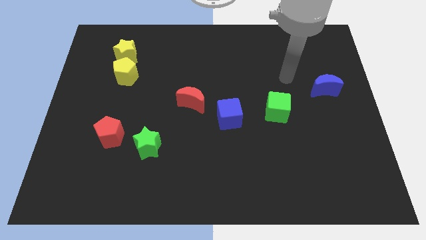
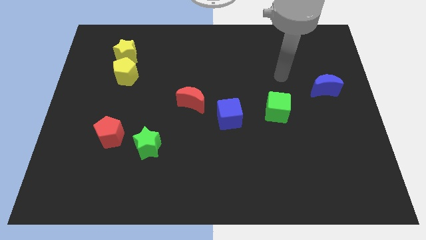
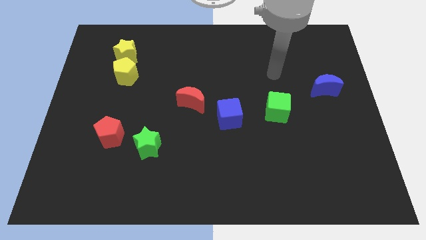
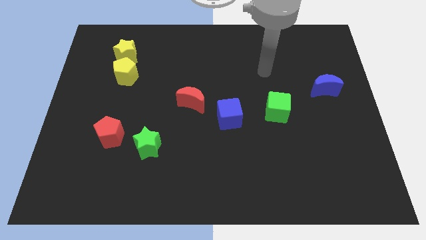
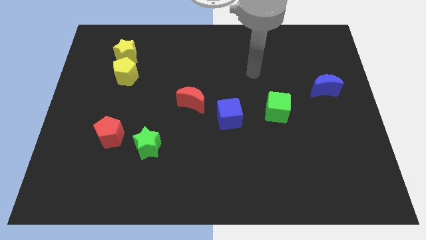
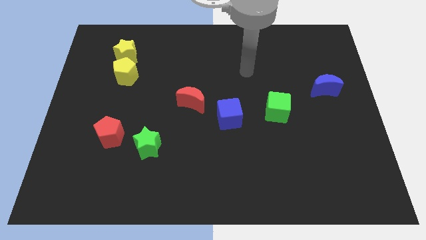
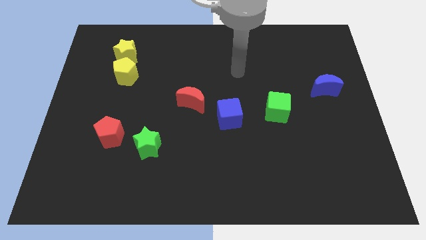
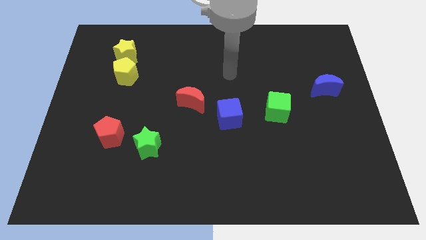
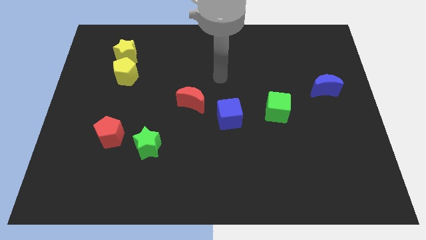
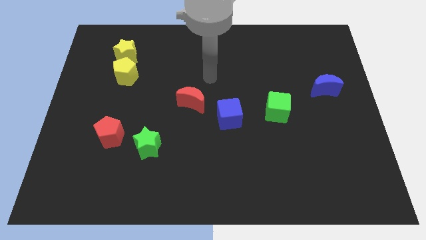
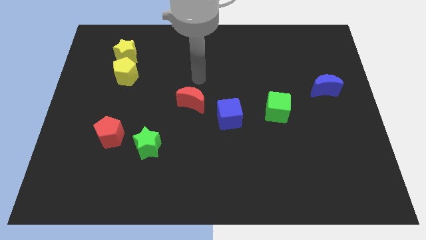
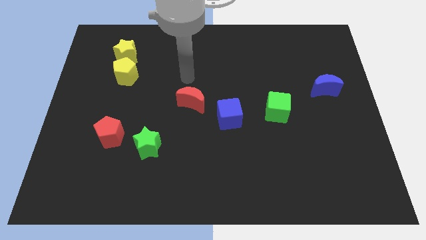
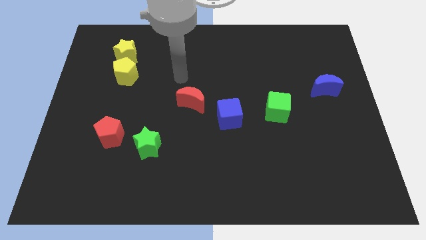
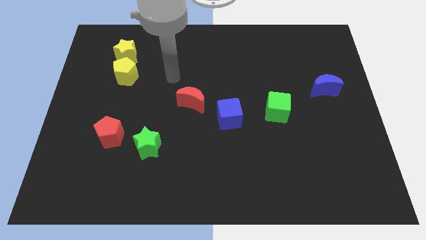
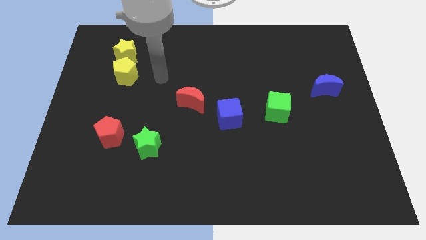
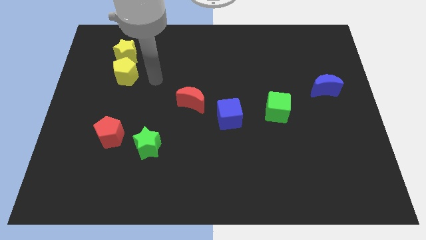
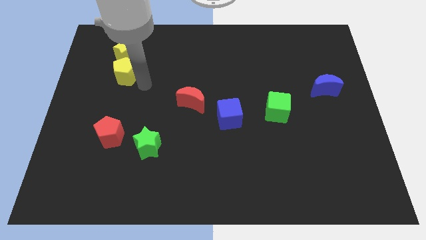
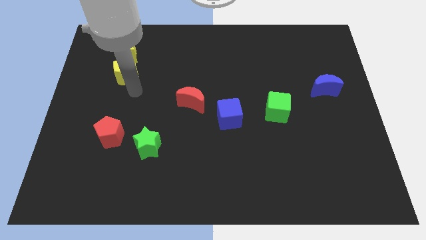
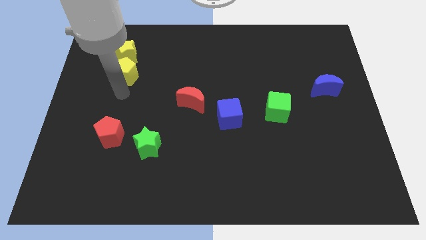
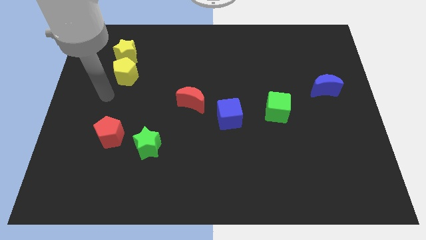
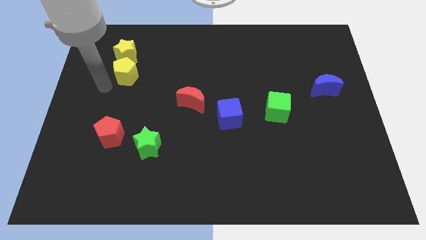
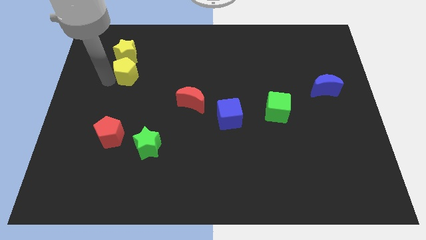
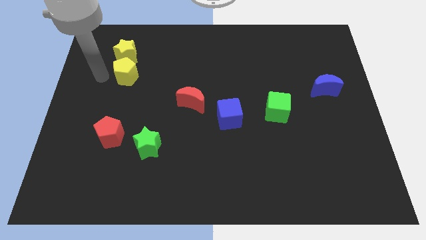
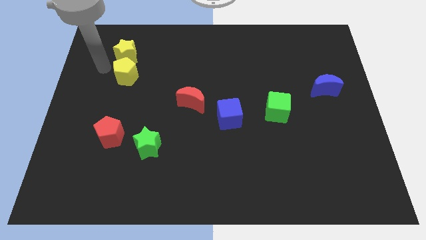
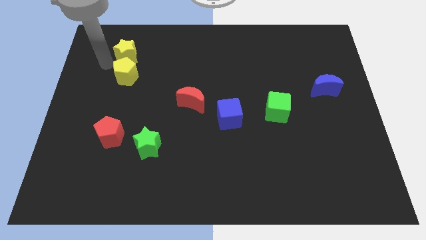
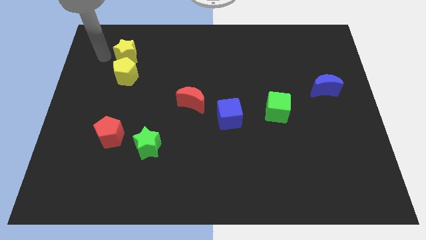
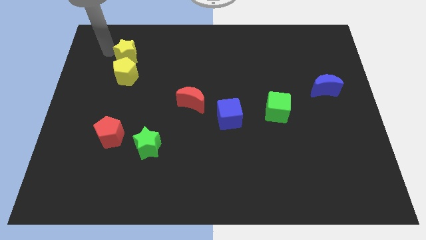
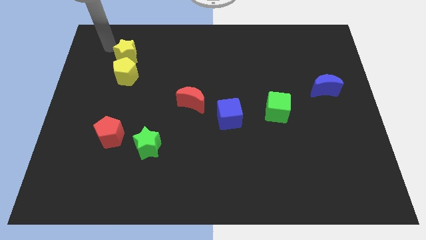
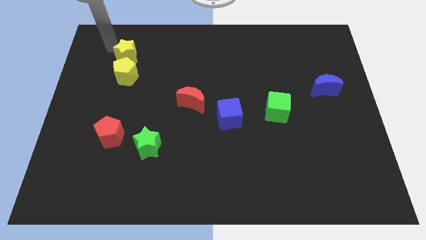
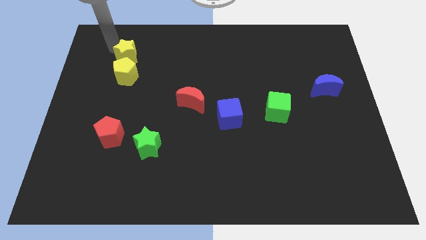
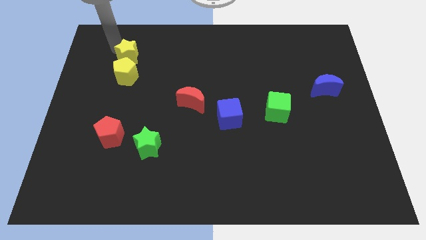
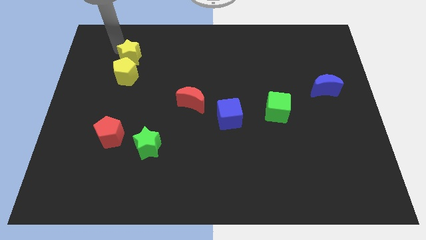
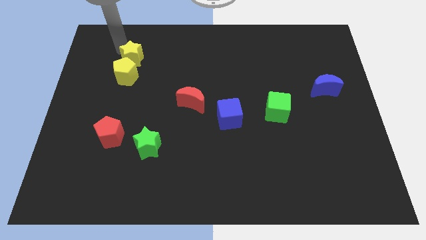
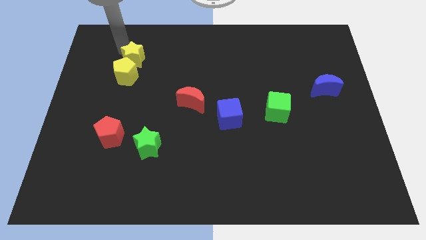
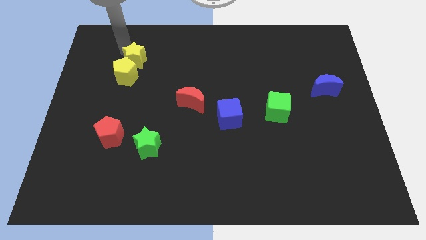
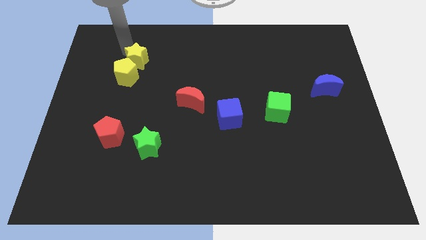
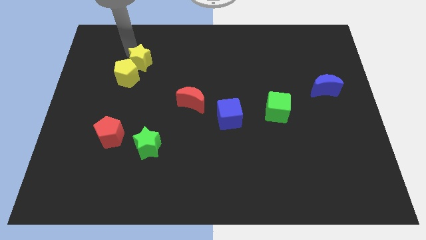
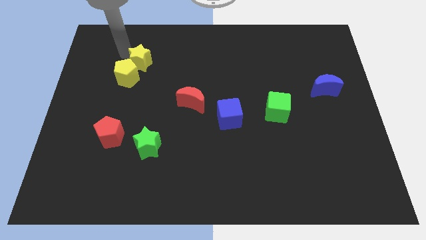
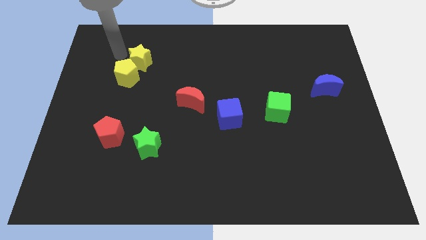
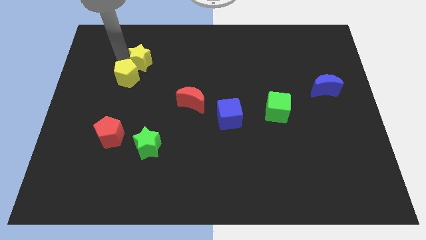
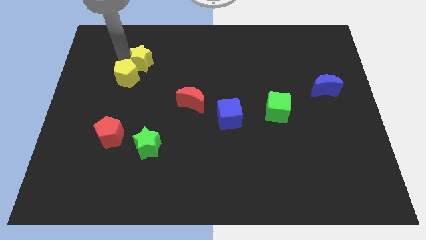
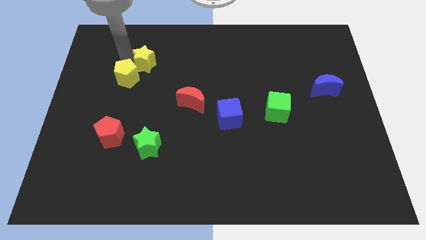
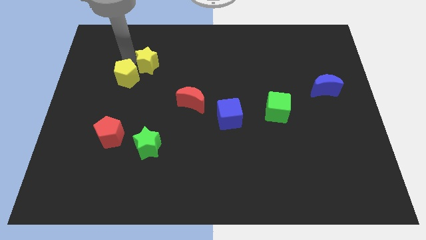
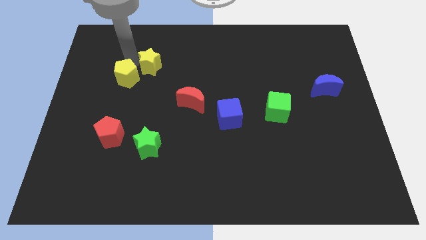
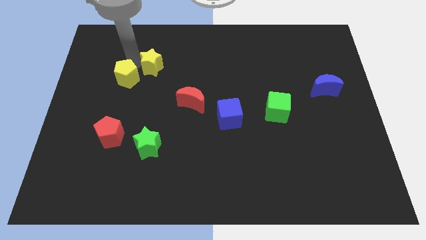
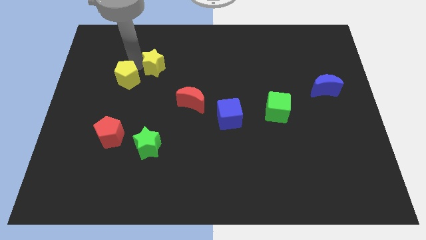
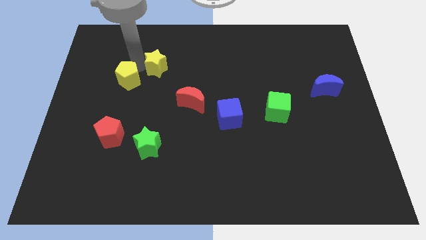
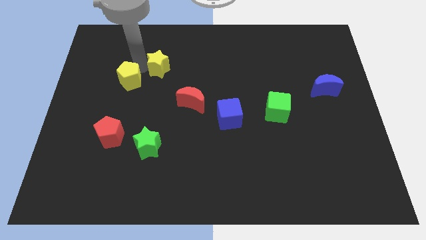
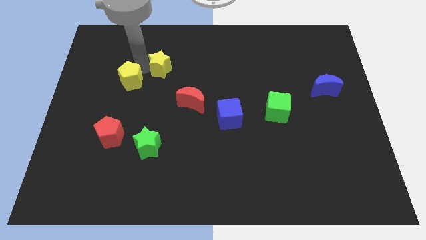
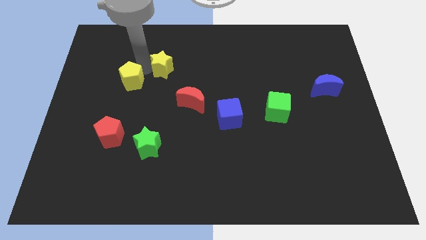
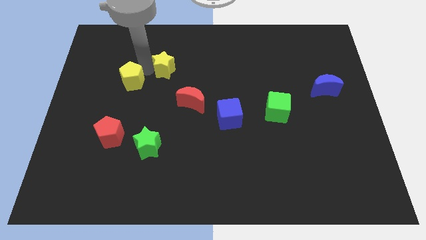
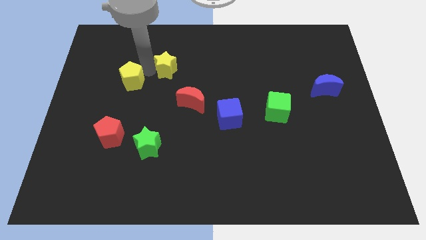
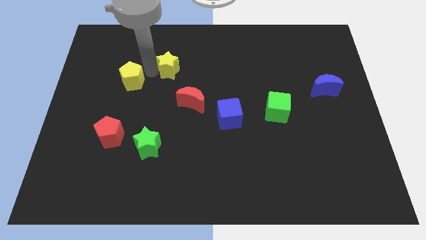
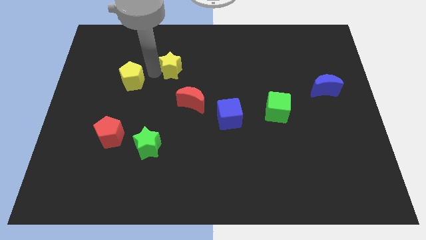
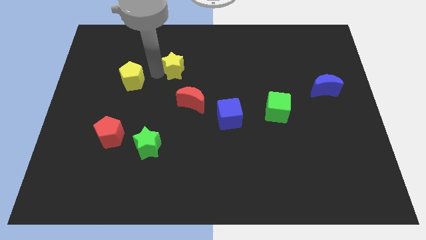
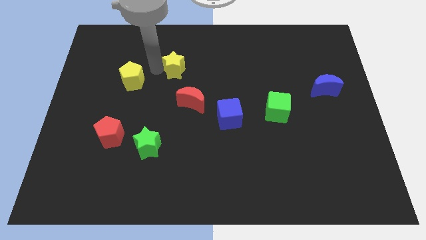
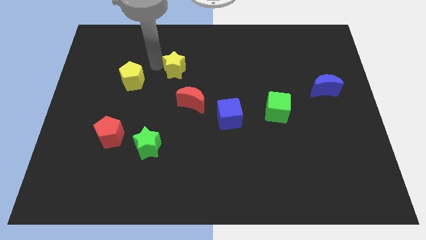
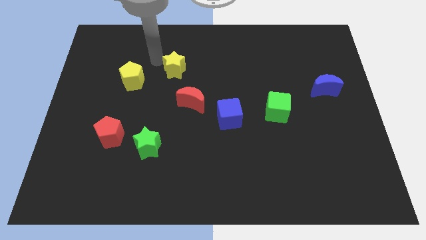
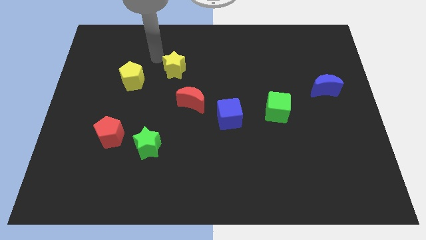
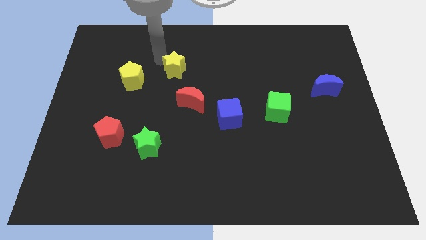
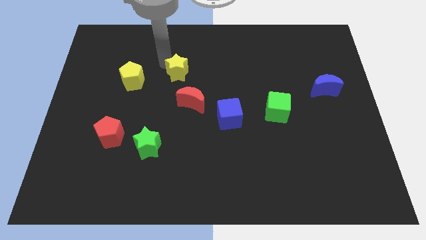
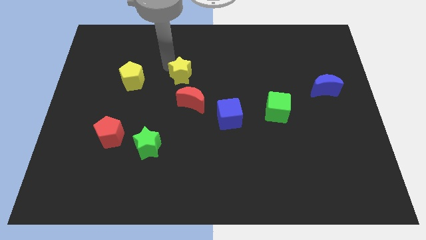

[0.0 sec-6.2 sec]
push the yellow star to the middle of the board
